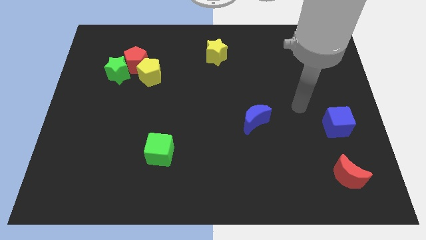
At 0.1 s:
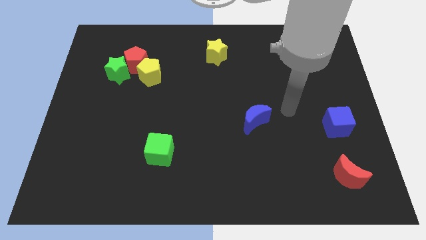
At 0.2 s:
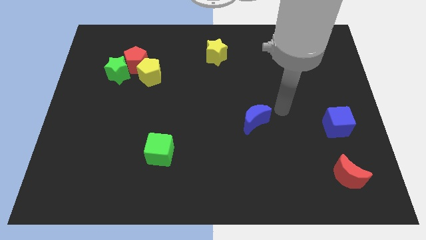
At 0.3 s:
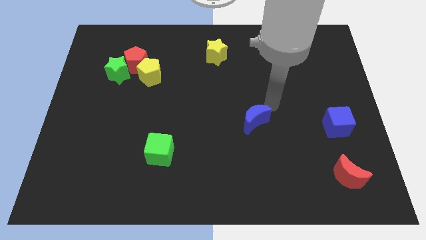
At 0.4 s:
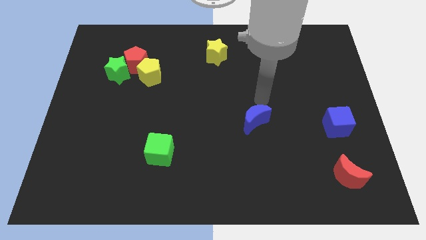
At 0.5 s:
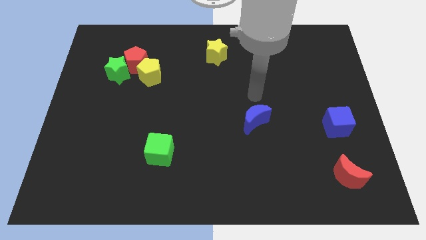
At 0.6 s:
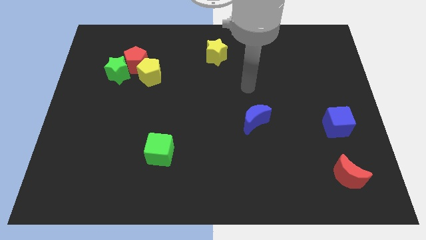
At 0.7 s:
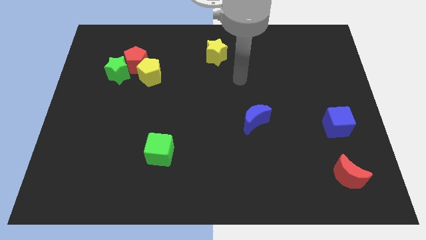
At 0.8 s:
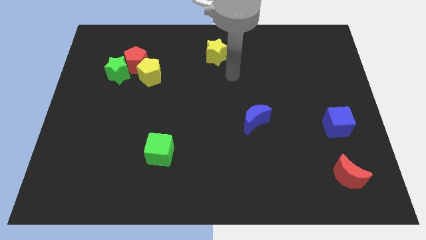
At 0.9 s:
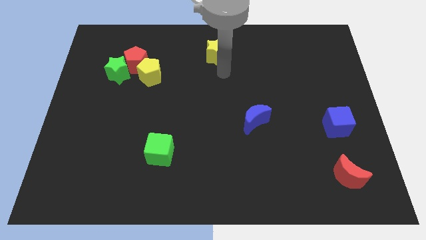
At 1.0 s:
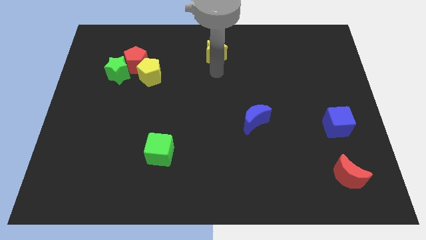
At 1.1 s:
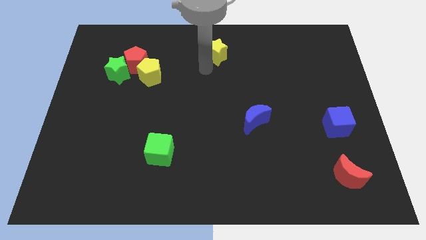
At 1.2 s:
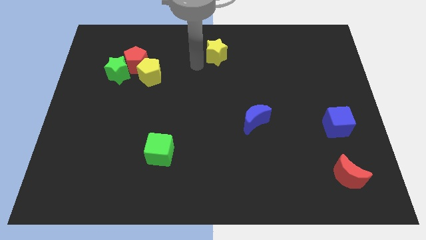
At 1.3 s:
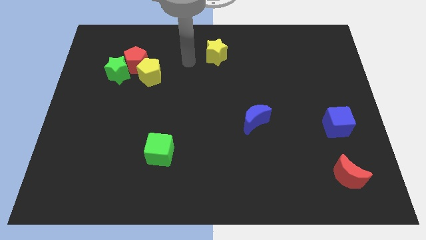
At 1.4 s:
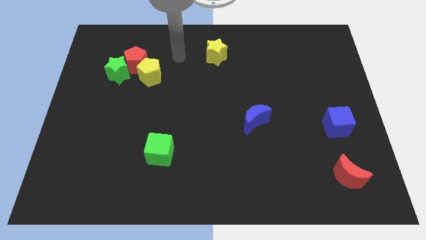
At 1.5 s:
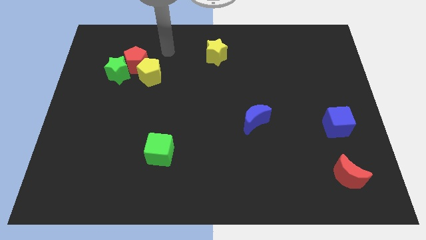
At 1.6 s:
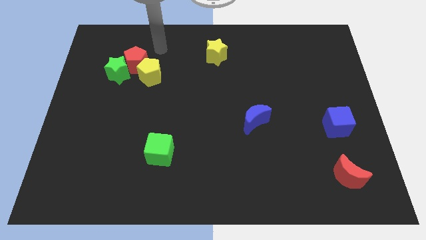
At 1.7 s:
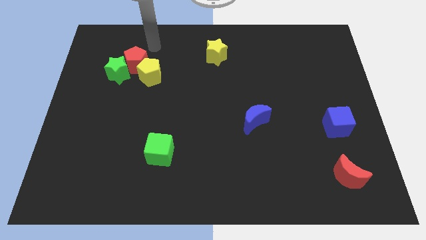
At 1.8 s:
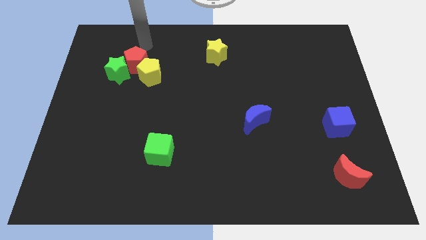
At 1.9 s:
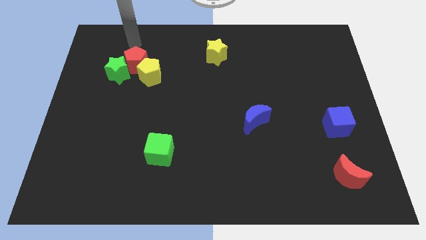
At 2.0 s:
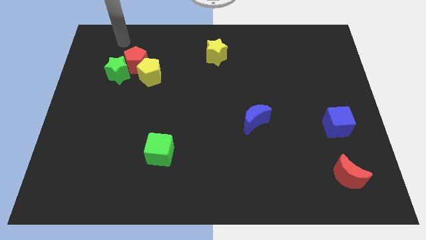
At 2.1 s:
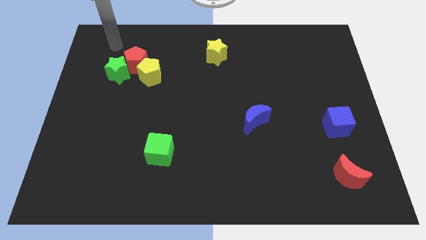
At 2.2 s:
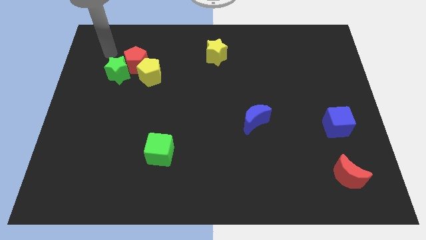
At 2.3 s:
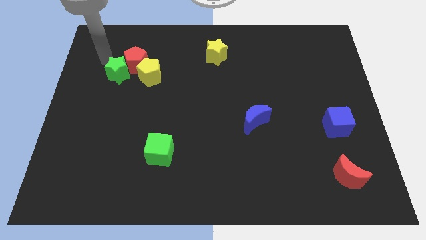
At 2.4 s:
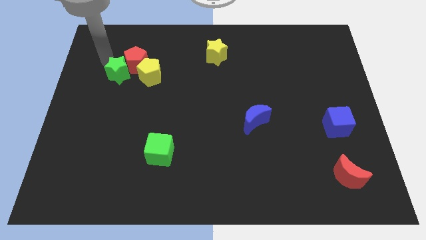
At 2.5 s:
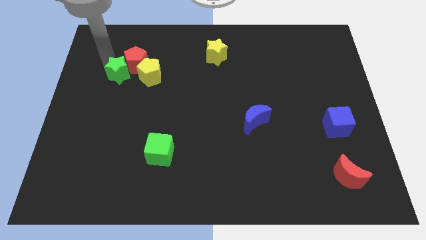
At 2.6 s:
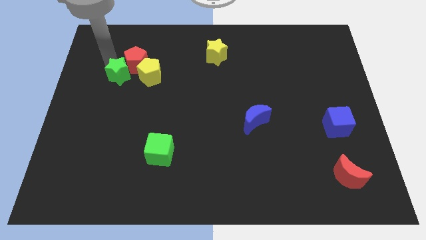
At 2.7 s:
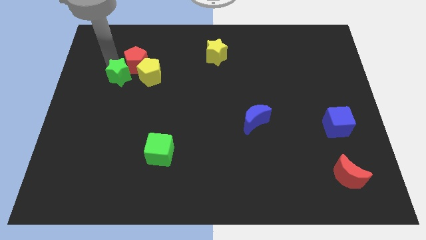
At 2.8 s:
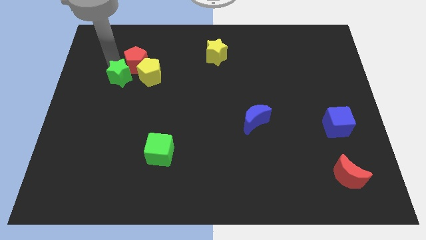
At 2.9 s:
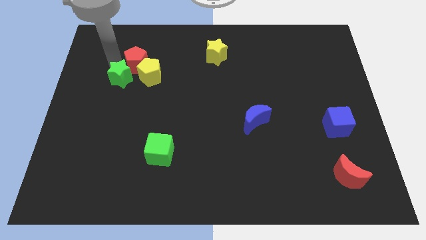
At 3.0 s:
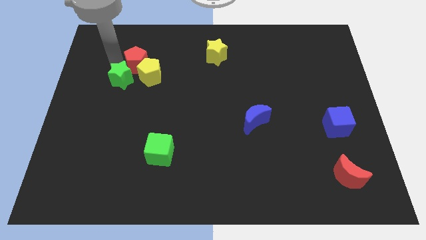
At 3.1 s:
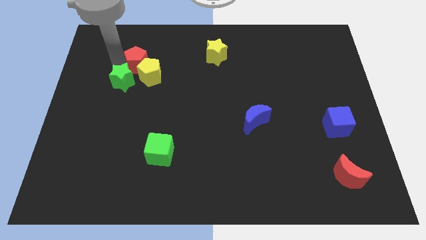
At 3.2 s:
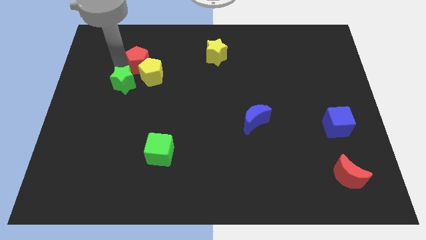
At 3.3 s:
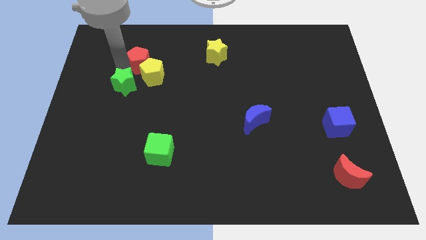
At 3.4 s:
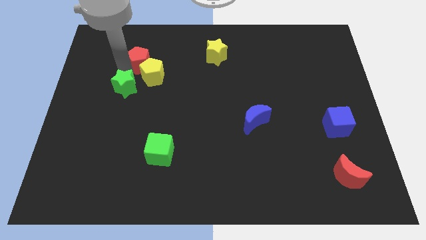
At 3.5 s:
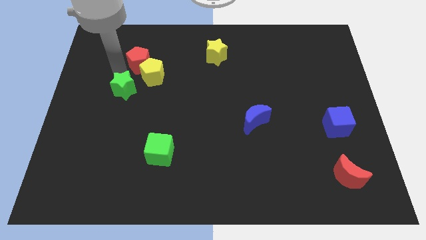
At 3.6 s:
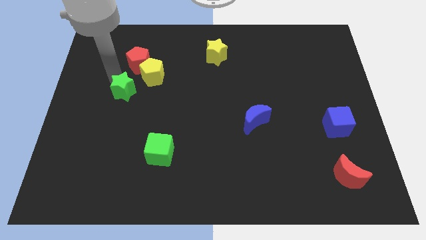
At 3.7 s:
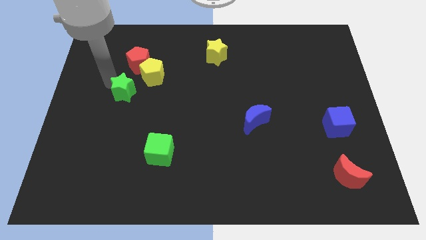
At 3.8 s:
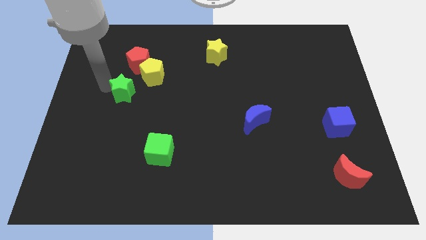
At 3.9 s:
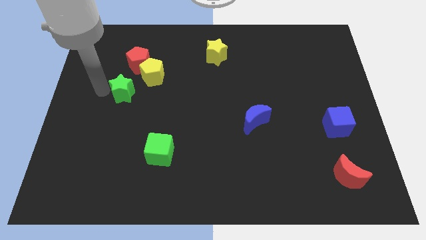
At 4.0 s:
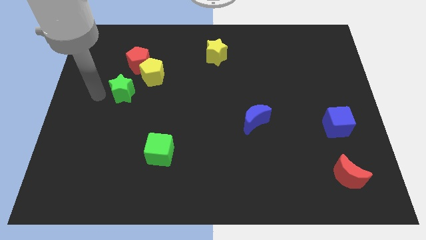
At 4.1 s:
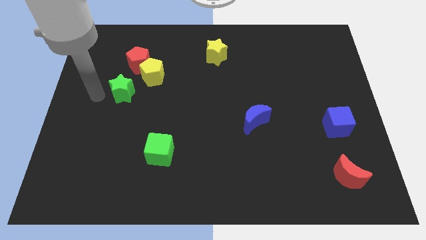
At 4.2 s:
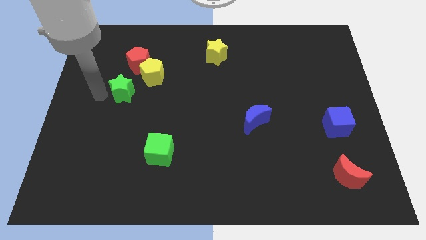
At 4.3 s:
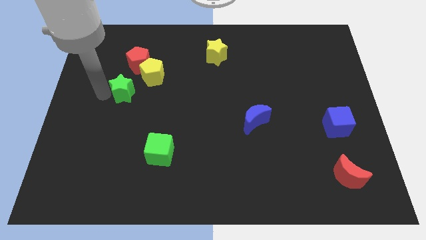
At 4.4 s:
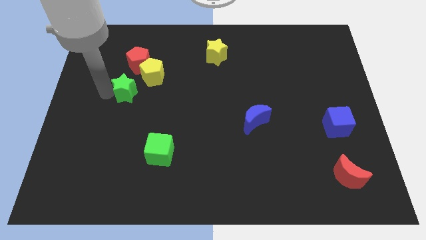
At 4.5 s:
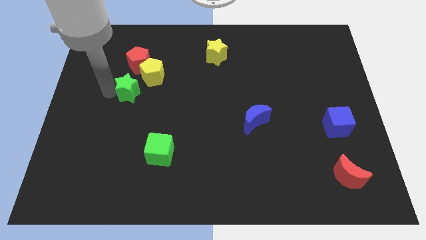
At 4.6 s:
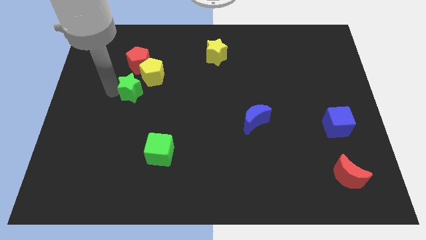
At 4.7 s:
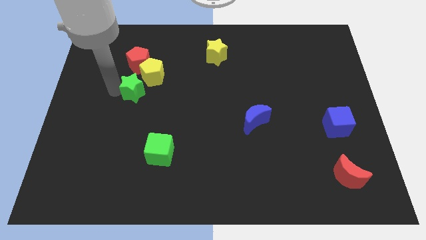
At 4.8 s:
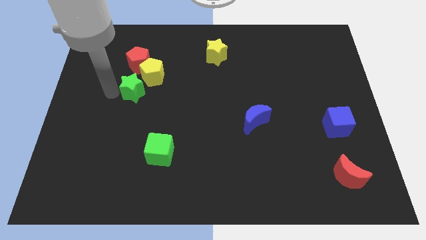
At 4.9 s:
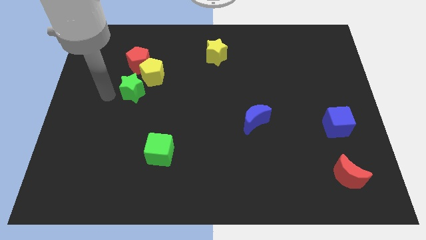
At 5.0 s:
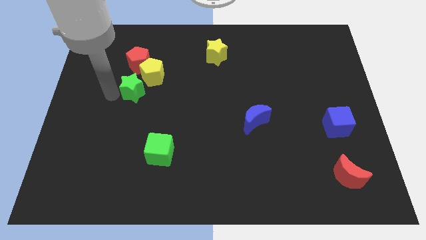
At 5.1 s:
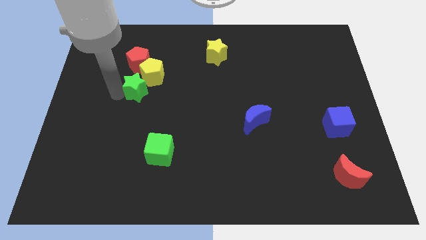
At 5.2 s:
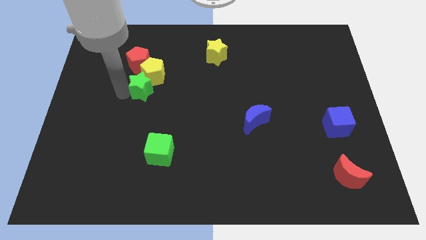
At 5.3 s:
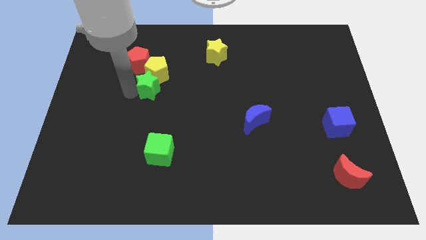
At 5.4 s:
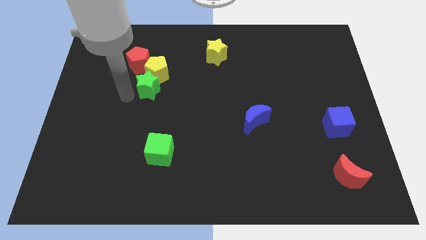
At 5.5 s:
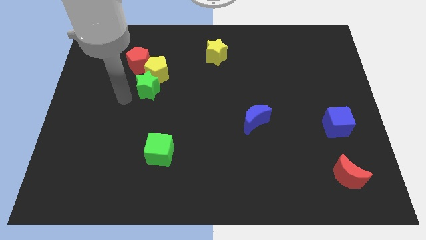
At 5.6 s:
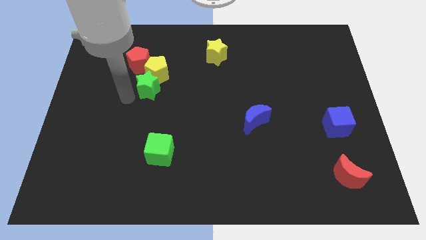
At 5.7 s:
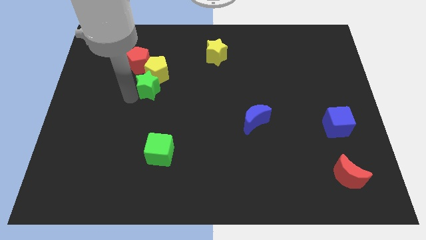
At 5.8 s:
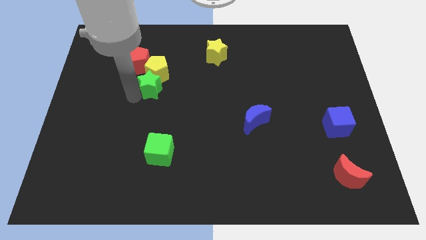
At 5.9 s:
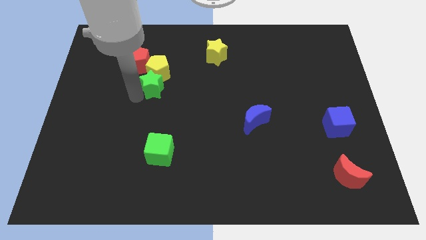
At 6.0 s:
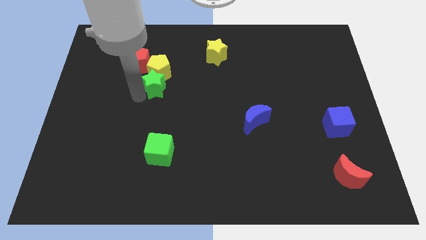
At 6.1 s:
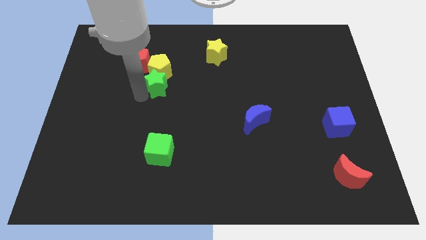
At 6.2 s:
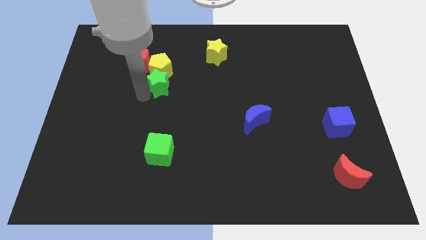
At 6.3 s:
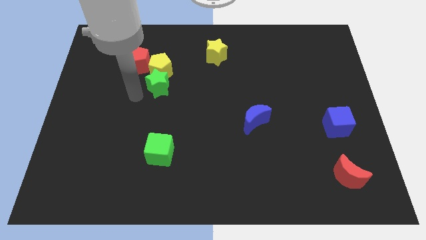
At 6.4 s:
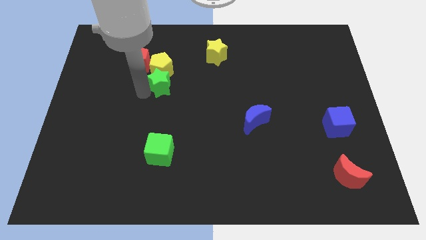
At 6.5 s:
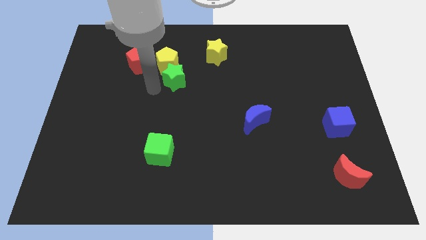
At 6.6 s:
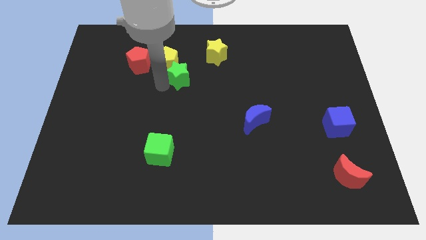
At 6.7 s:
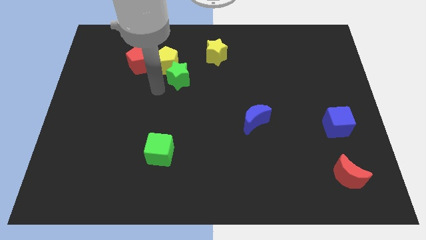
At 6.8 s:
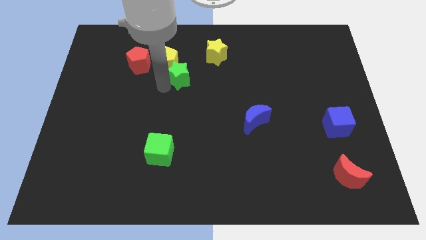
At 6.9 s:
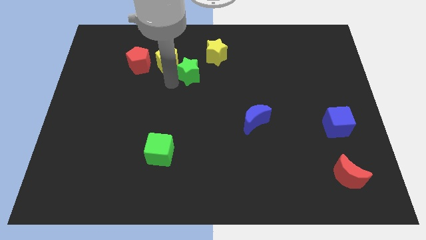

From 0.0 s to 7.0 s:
push the green star right of the yellow pentagon

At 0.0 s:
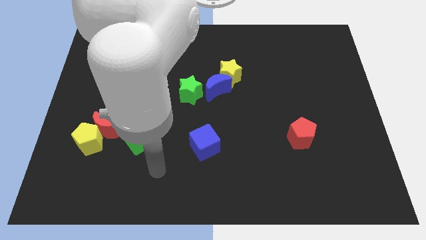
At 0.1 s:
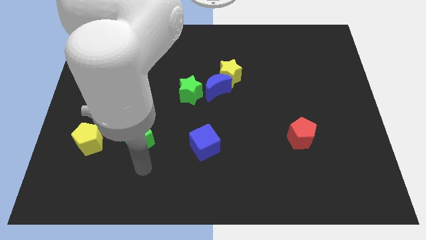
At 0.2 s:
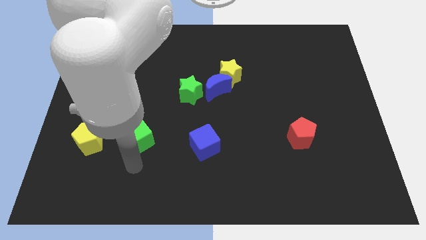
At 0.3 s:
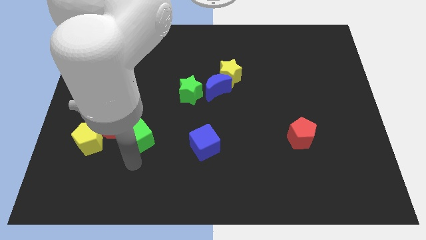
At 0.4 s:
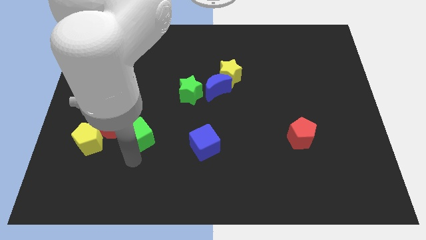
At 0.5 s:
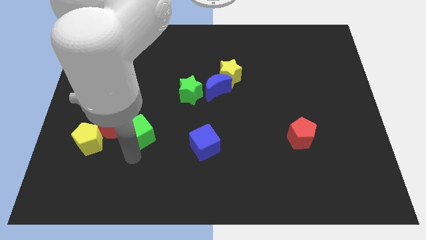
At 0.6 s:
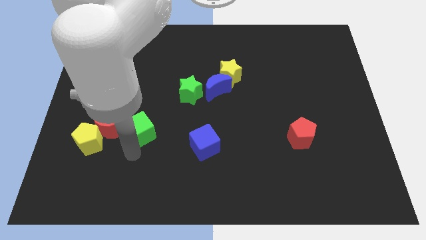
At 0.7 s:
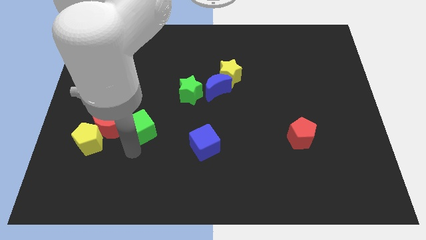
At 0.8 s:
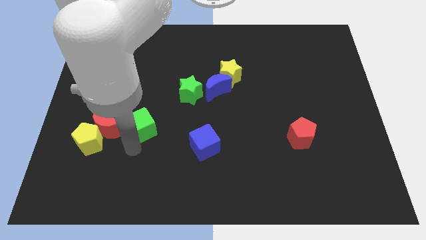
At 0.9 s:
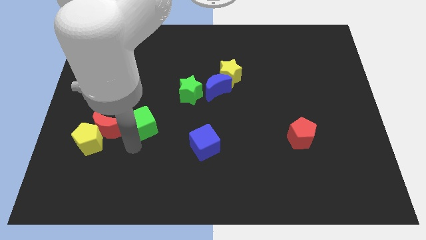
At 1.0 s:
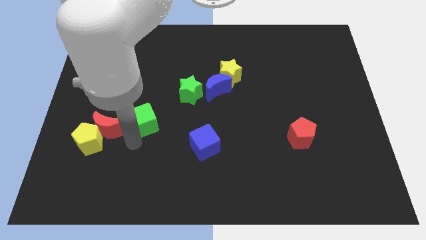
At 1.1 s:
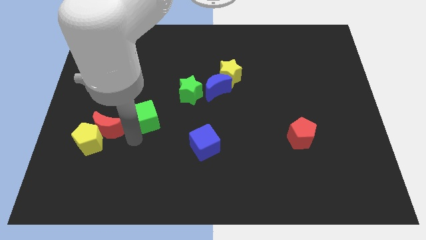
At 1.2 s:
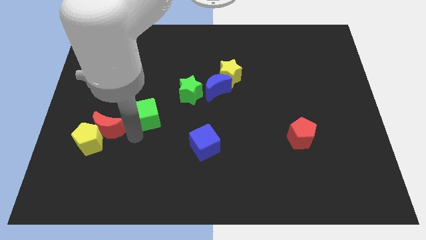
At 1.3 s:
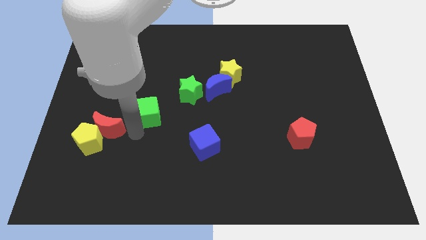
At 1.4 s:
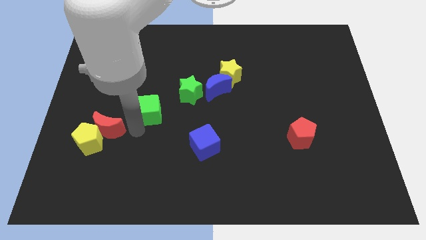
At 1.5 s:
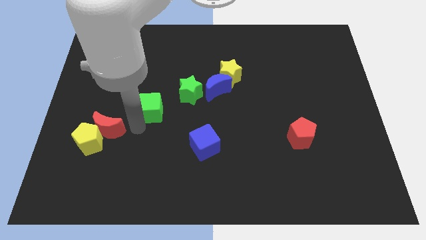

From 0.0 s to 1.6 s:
move the green cube to the left side of the green star
